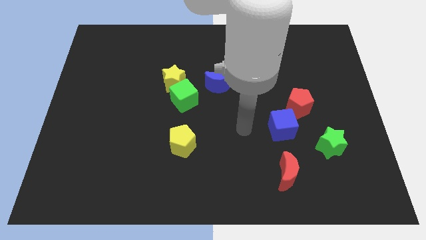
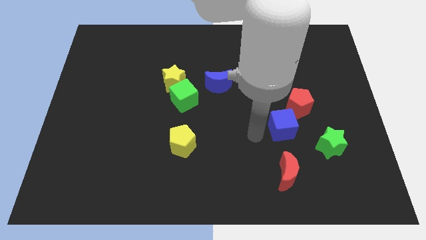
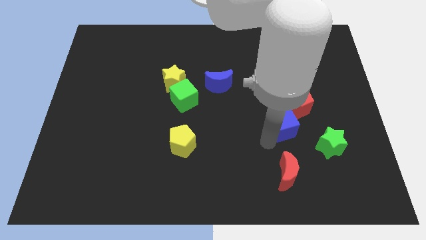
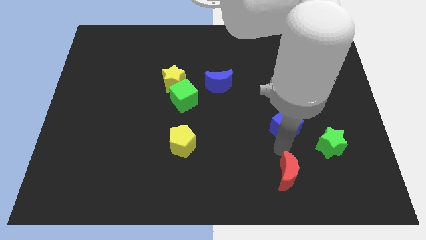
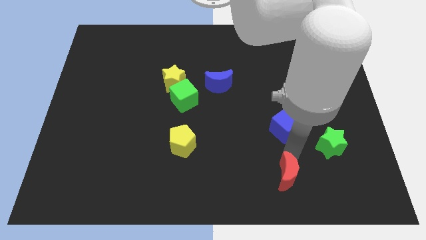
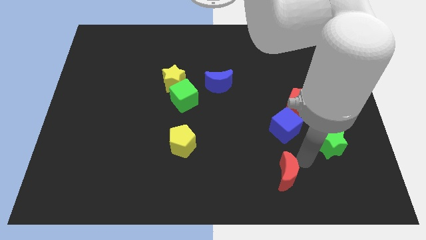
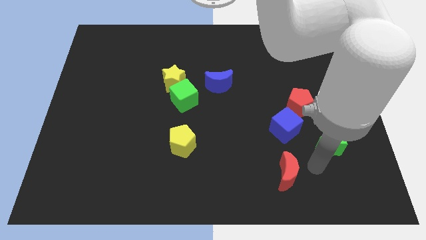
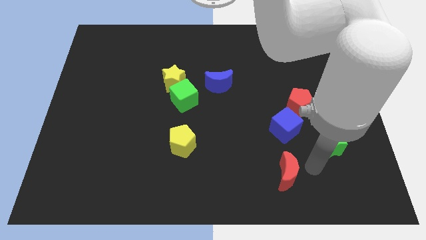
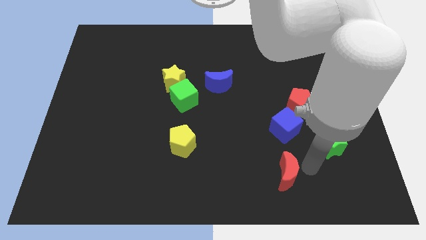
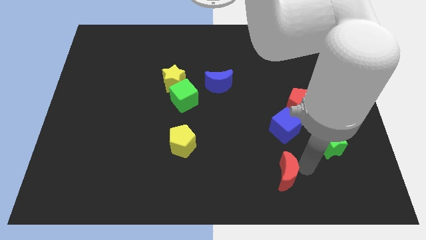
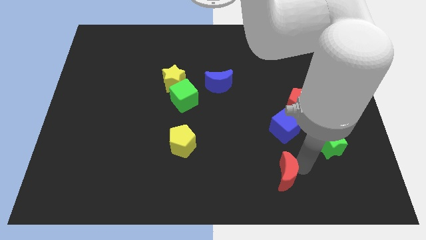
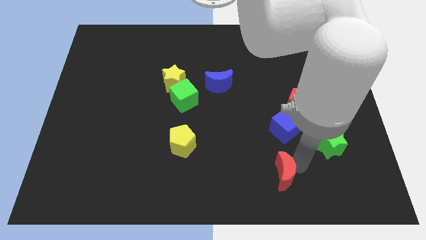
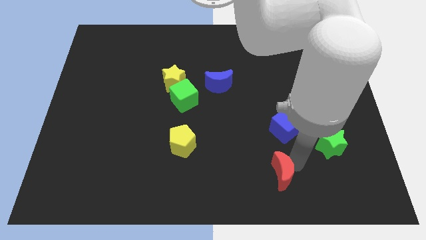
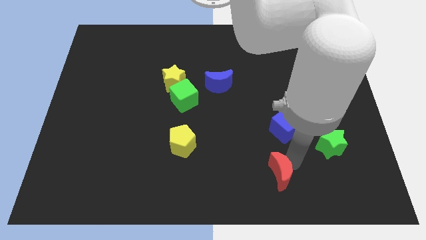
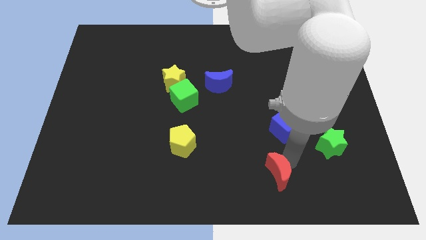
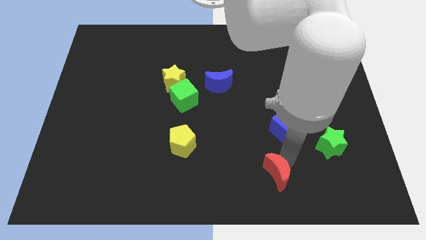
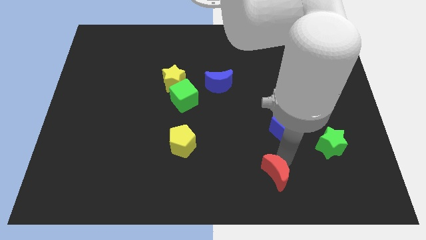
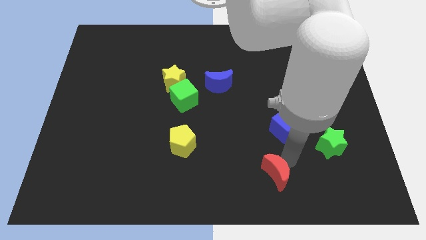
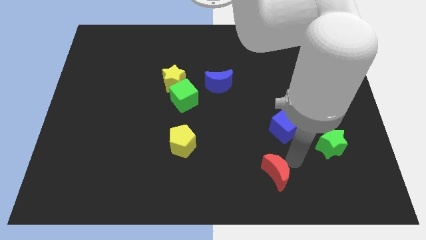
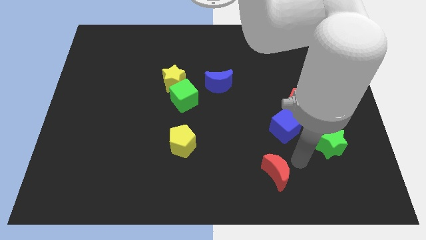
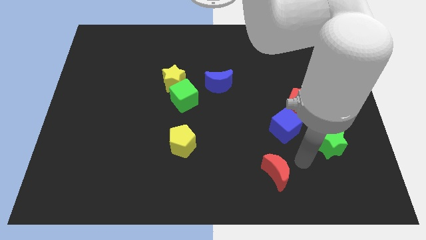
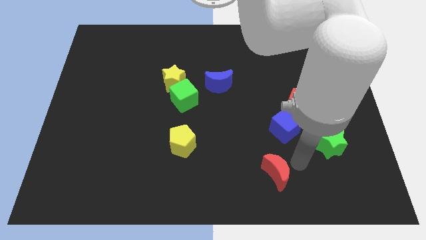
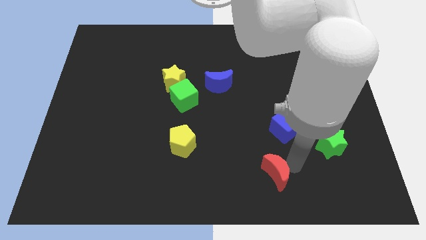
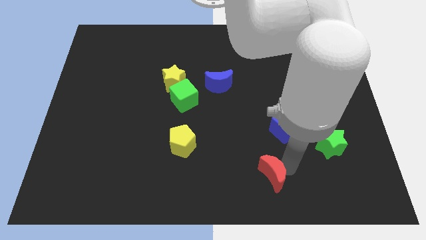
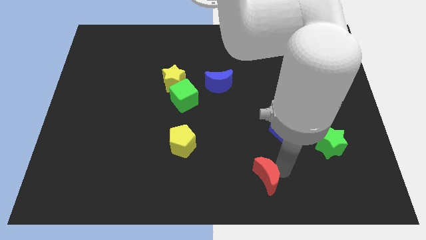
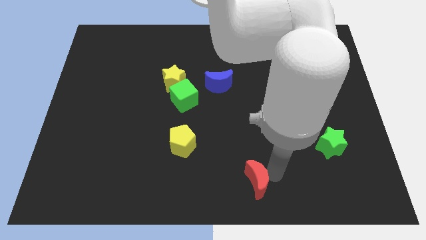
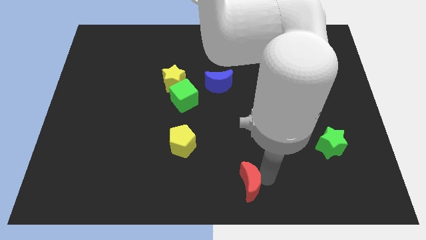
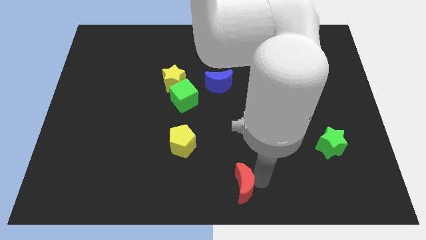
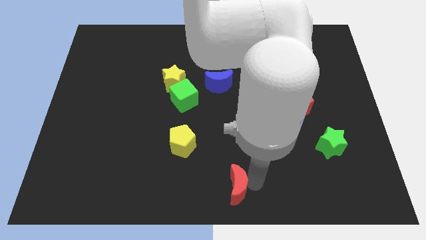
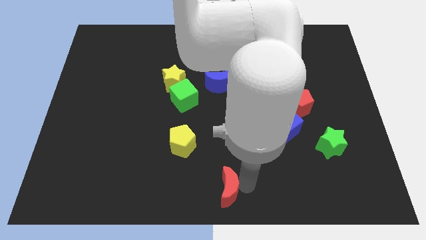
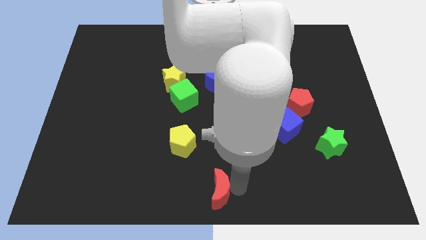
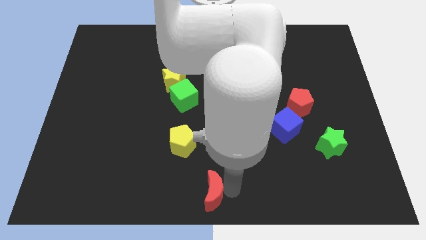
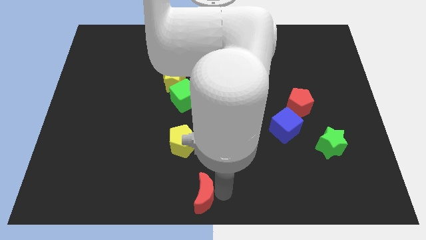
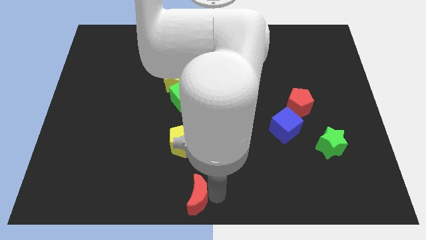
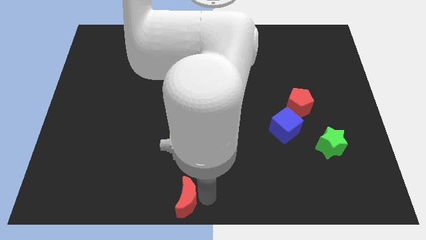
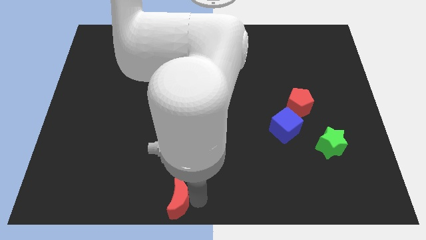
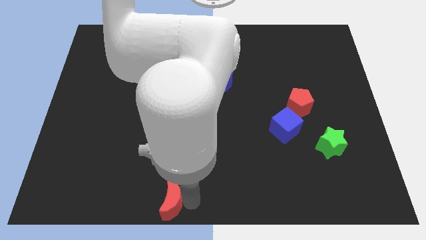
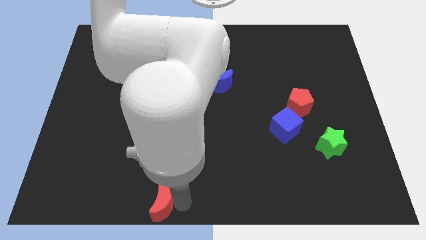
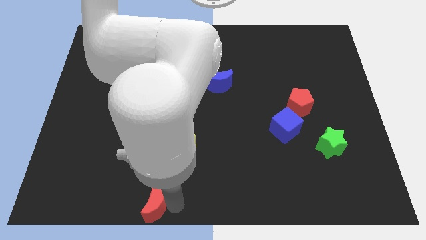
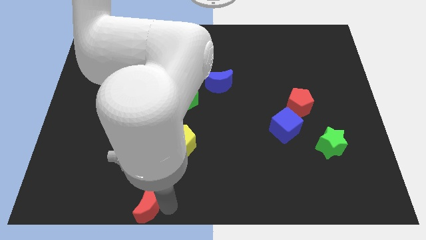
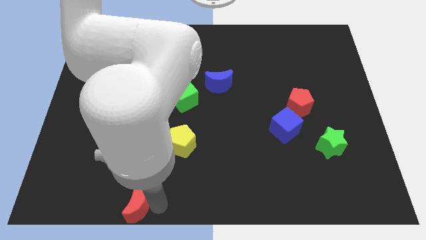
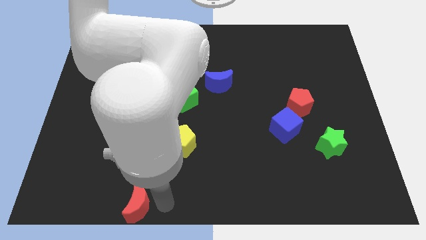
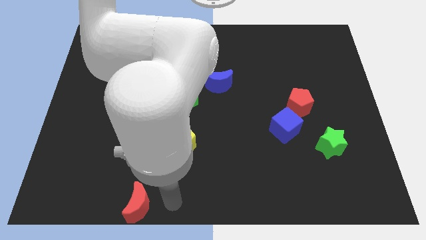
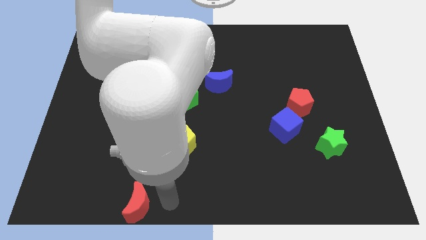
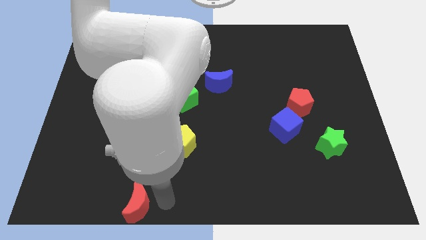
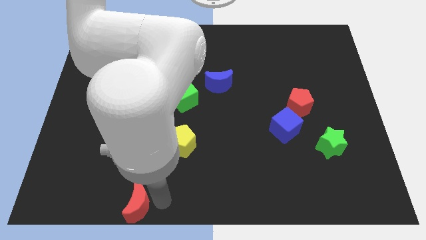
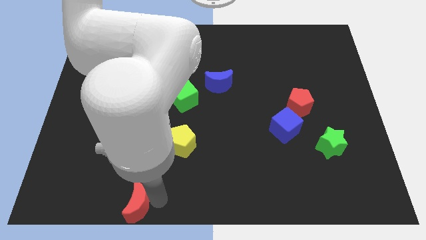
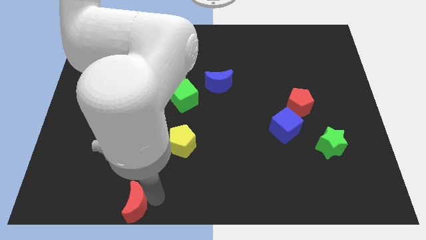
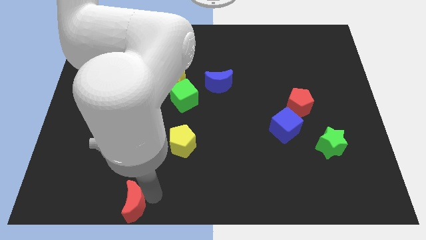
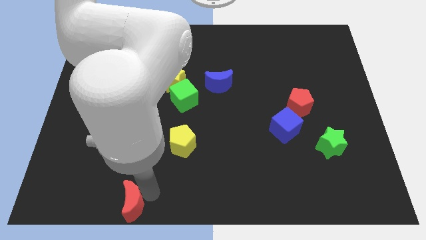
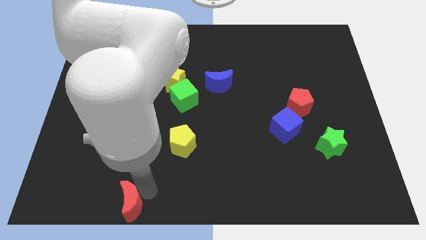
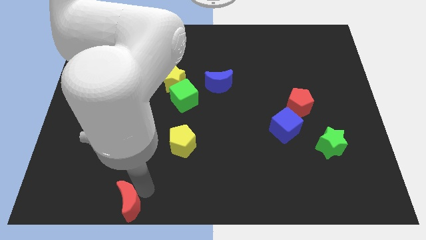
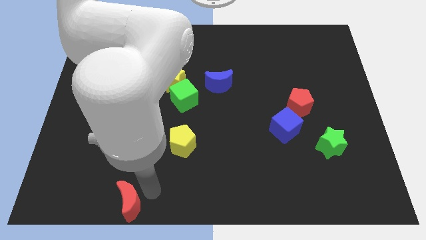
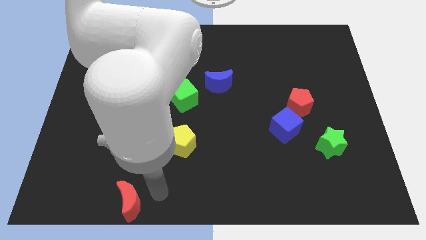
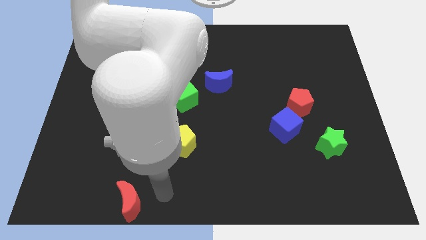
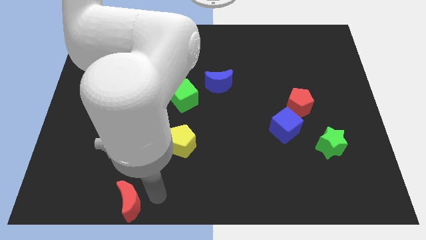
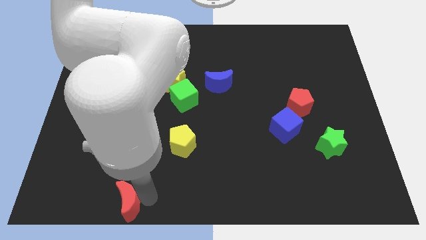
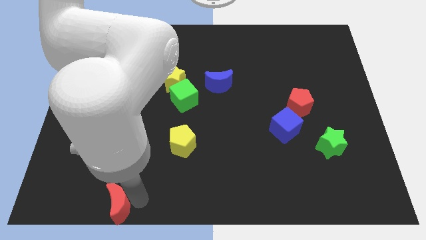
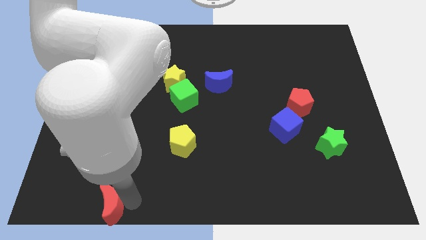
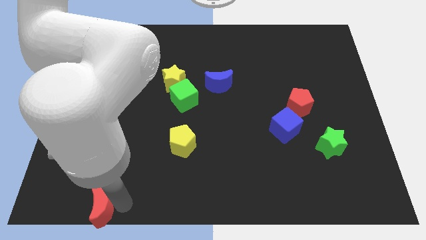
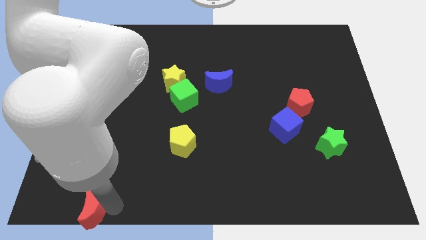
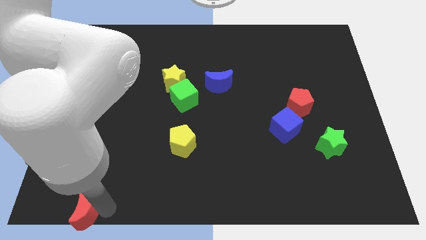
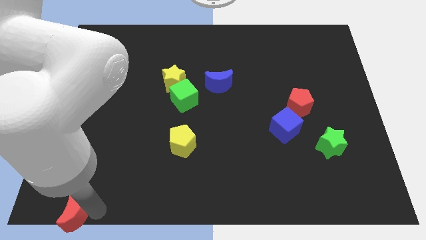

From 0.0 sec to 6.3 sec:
push the red moon to the bottom left corner

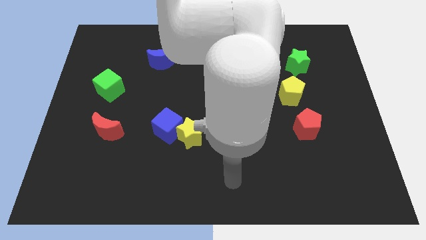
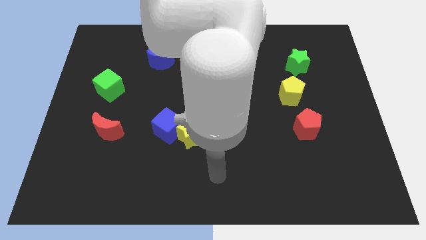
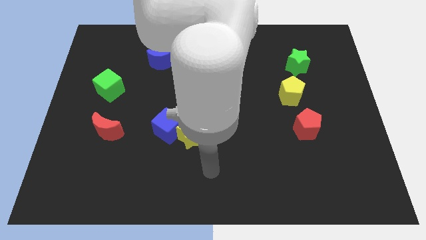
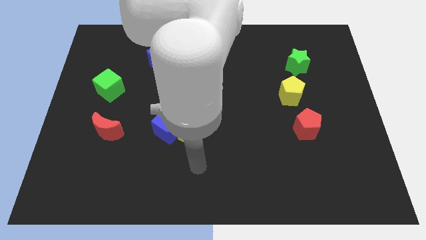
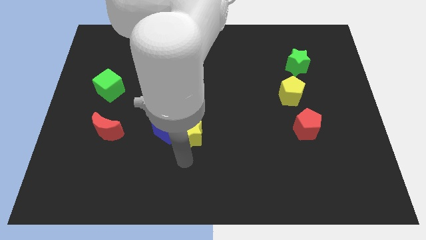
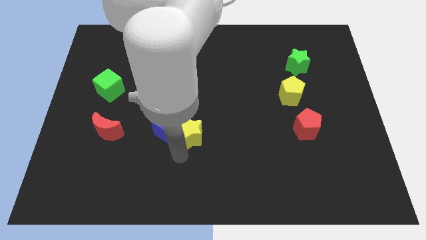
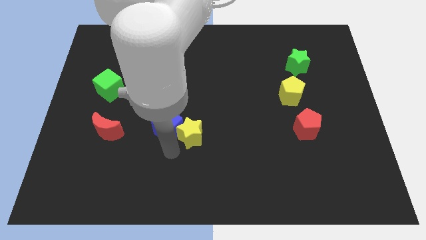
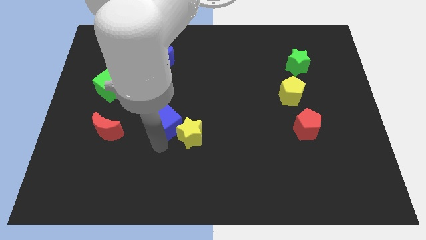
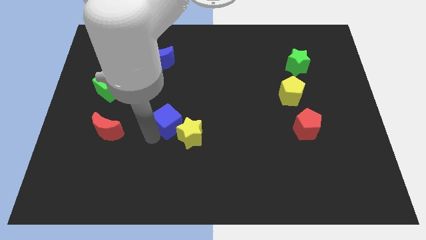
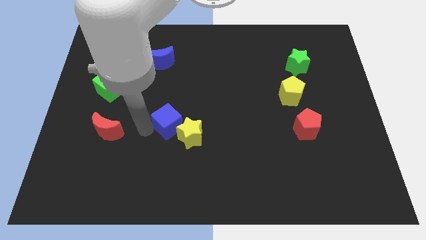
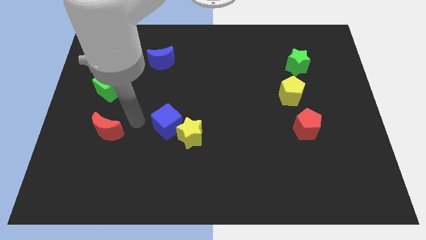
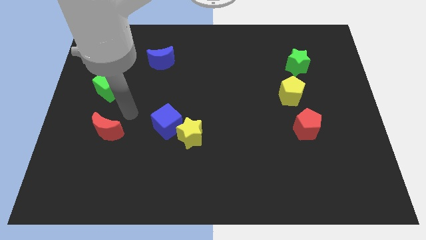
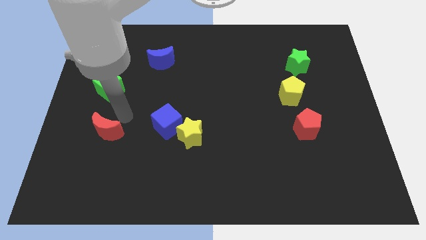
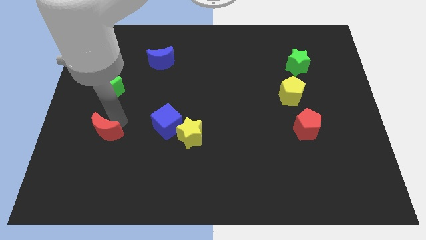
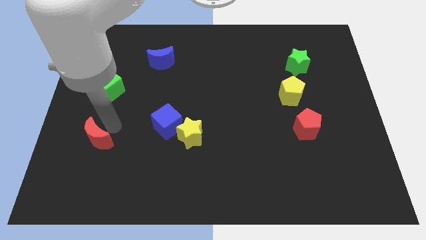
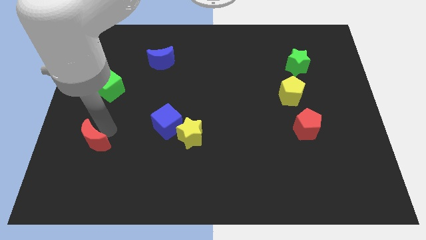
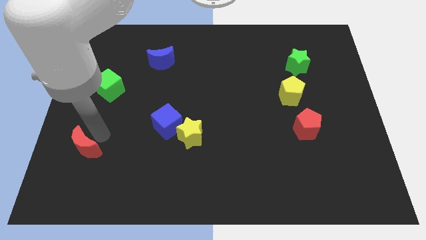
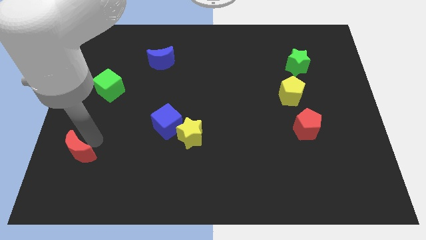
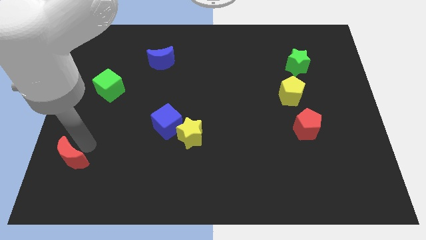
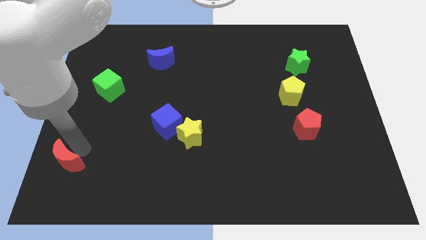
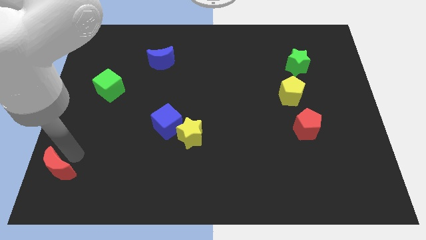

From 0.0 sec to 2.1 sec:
slide the red moon to the bottom left
